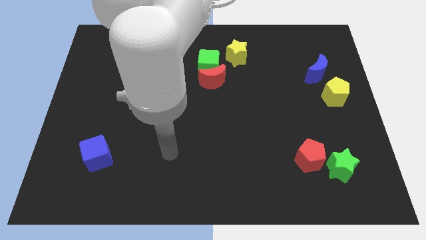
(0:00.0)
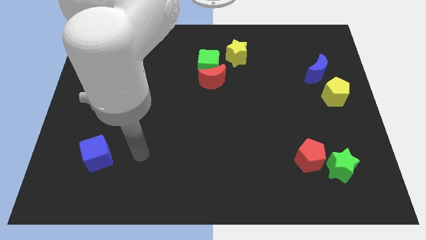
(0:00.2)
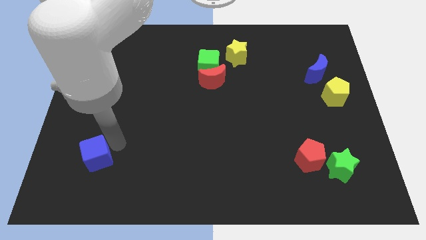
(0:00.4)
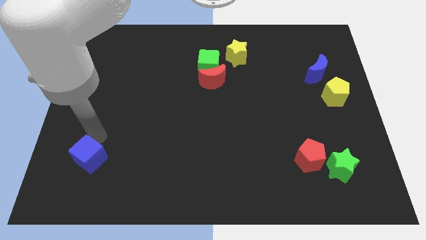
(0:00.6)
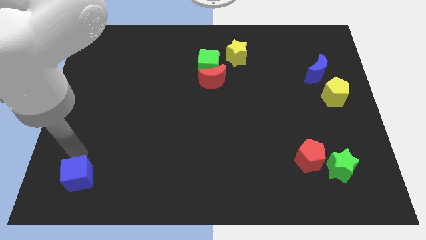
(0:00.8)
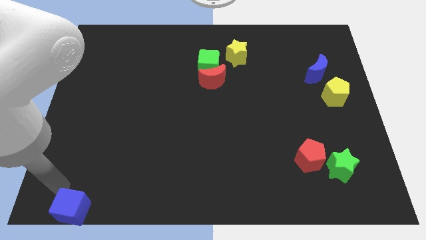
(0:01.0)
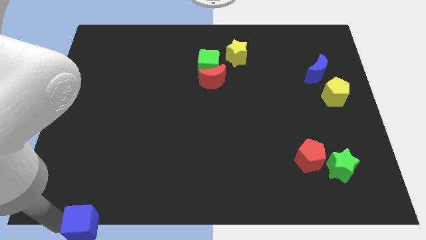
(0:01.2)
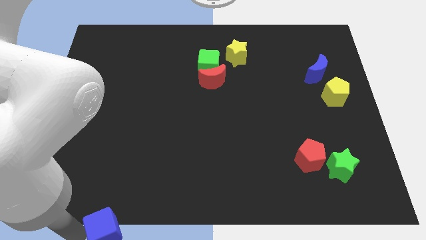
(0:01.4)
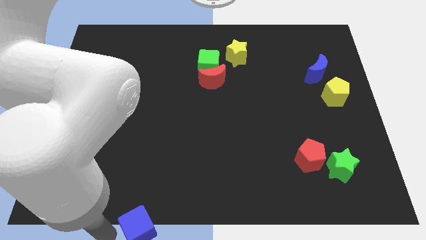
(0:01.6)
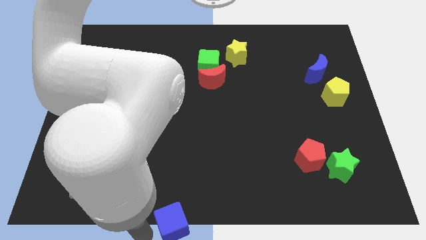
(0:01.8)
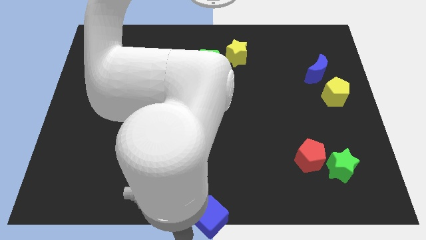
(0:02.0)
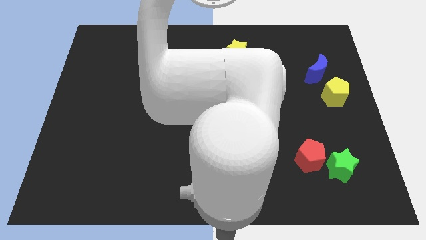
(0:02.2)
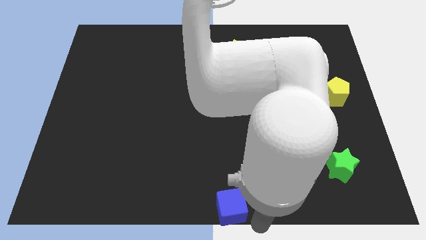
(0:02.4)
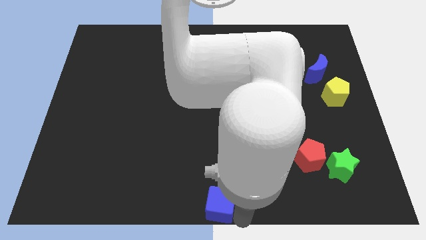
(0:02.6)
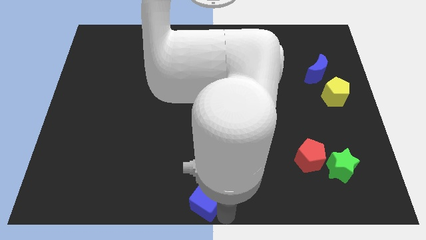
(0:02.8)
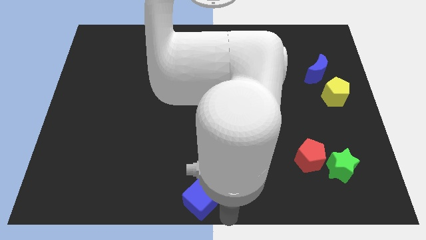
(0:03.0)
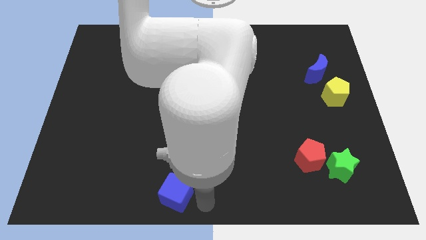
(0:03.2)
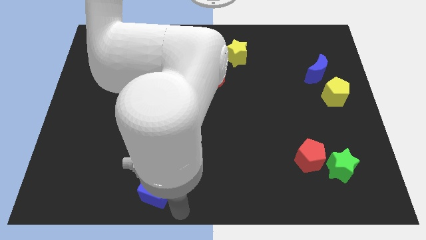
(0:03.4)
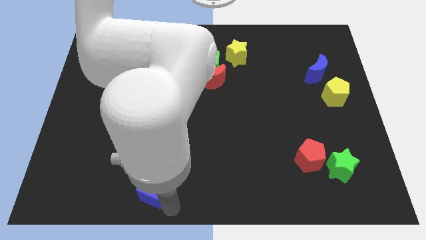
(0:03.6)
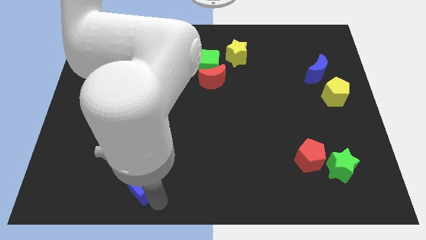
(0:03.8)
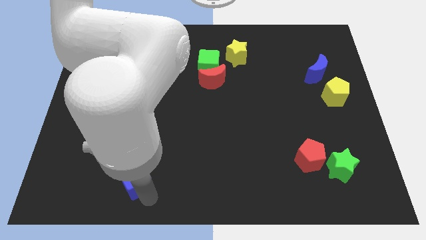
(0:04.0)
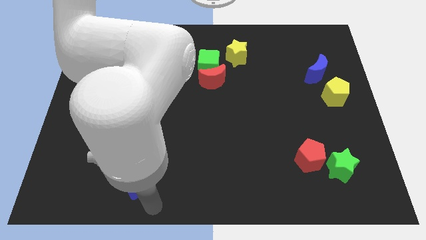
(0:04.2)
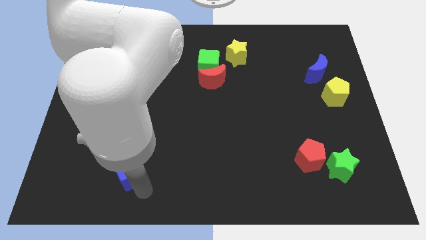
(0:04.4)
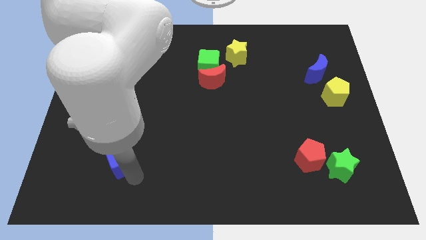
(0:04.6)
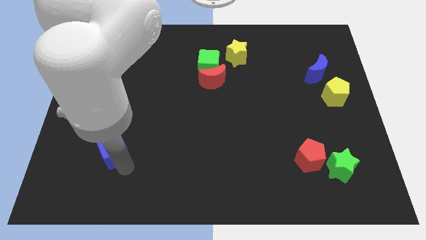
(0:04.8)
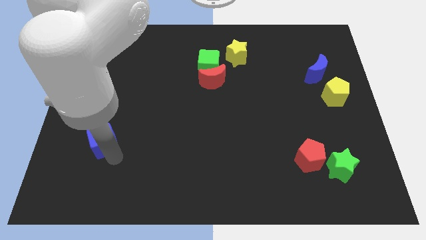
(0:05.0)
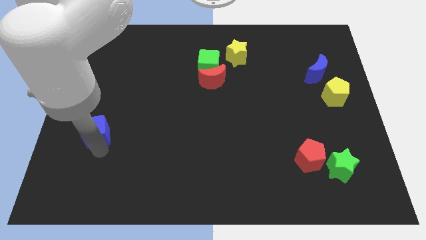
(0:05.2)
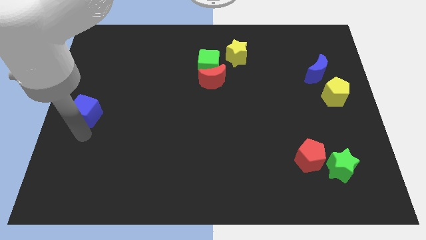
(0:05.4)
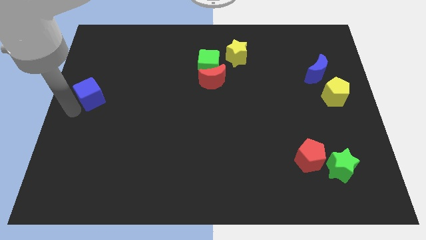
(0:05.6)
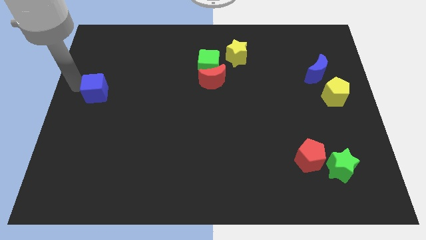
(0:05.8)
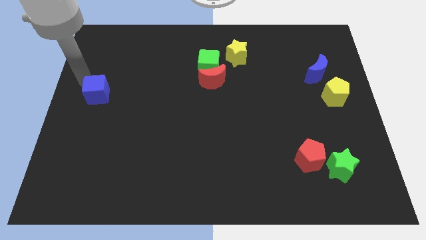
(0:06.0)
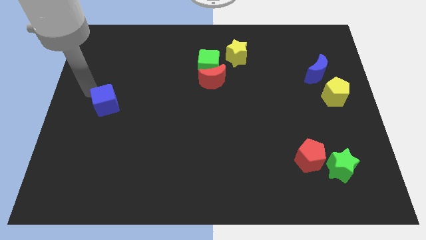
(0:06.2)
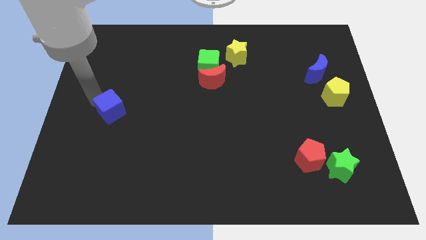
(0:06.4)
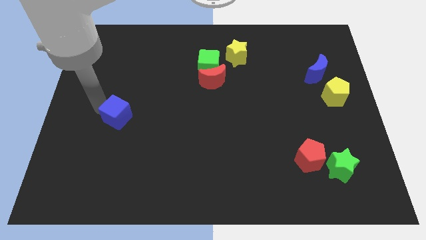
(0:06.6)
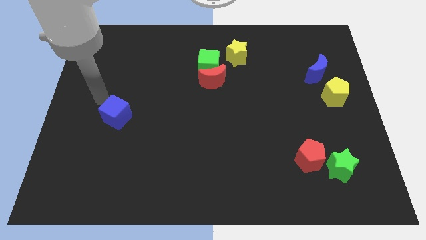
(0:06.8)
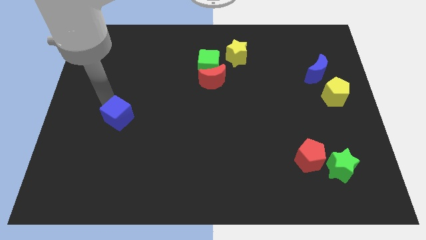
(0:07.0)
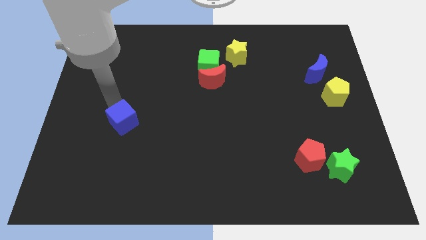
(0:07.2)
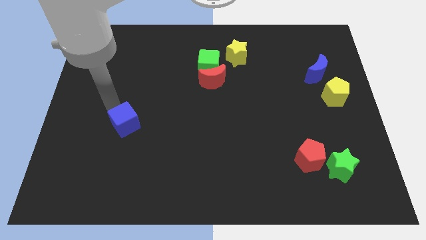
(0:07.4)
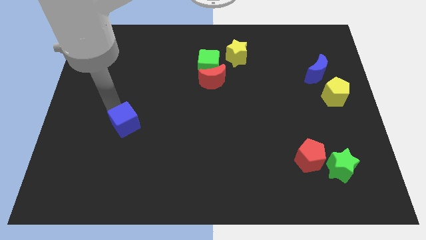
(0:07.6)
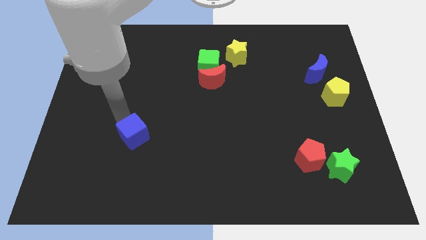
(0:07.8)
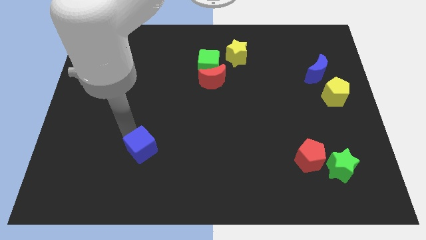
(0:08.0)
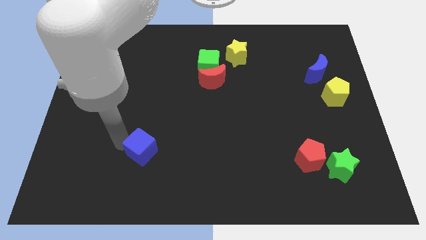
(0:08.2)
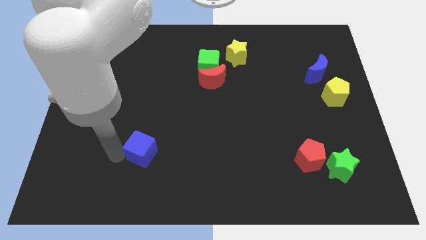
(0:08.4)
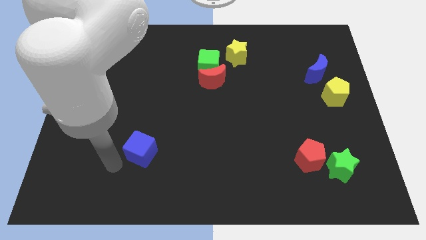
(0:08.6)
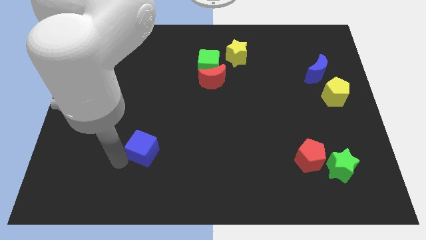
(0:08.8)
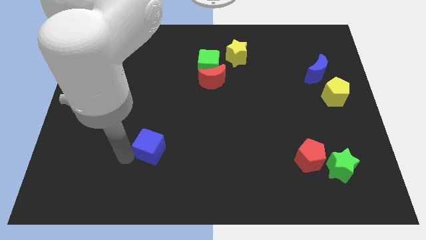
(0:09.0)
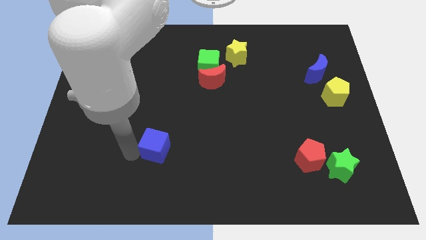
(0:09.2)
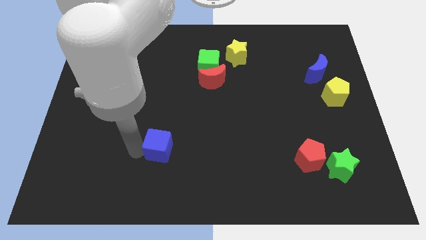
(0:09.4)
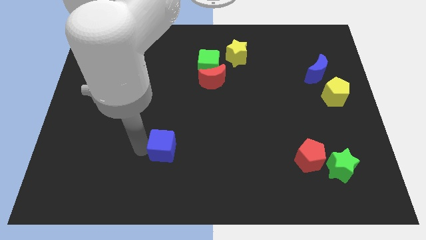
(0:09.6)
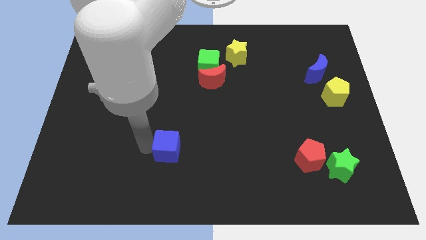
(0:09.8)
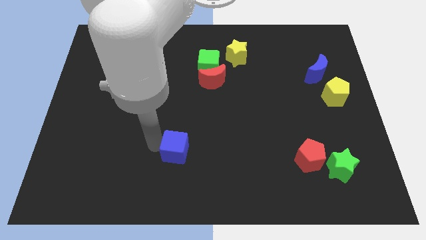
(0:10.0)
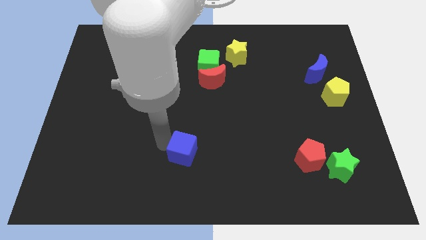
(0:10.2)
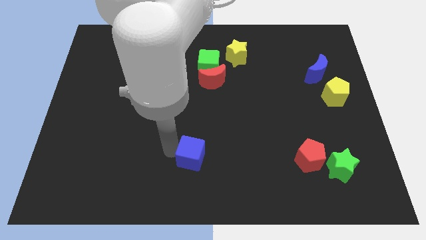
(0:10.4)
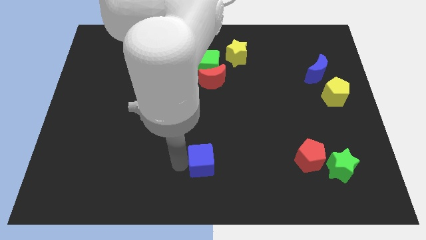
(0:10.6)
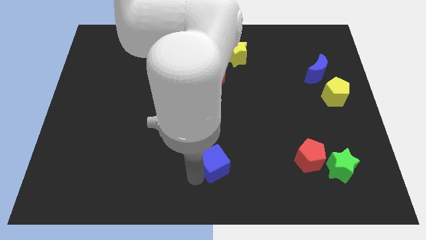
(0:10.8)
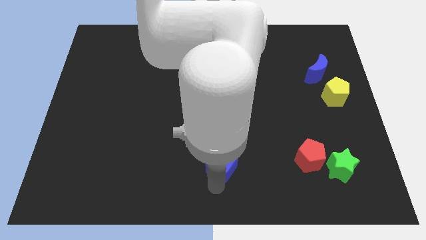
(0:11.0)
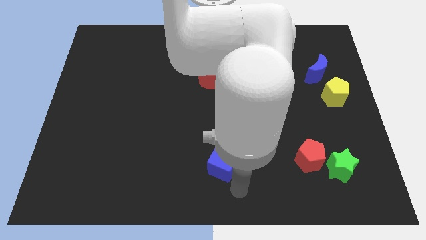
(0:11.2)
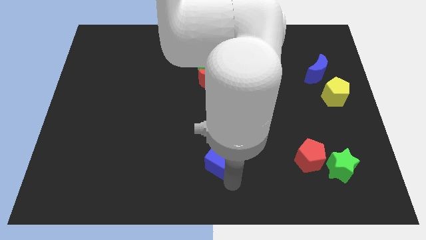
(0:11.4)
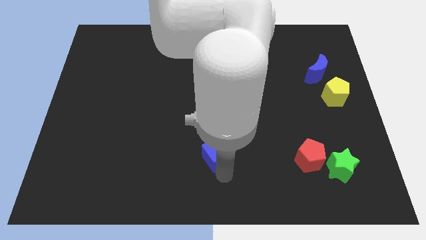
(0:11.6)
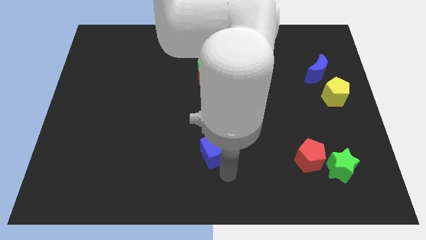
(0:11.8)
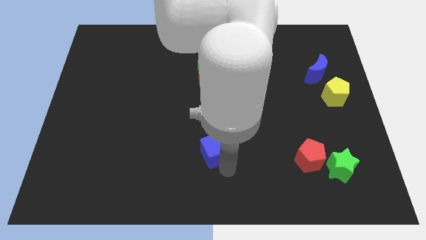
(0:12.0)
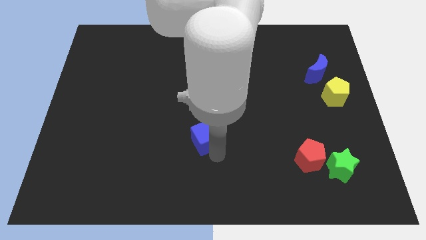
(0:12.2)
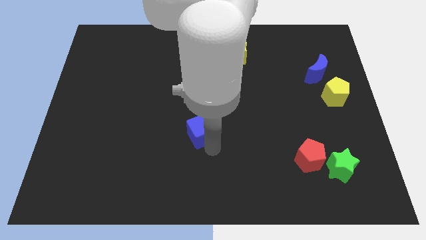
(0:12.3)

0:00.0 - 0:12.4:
slide the blue cube to the bottom side of the red moon

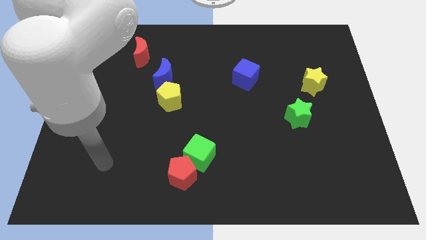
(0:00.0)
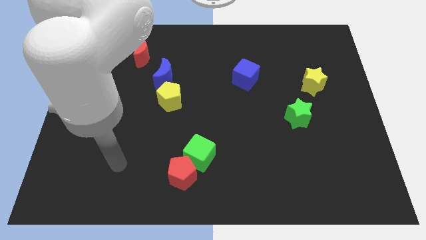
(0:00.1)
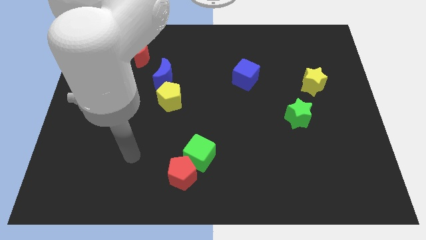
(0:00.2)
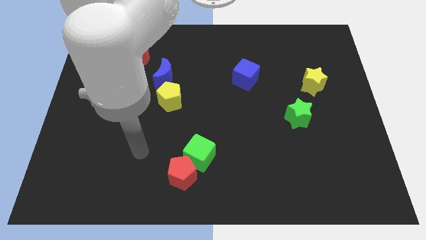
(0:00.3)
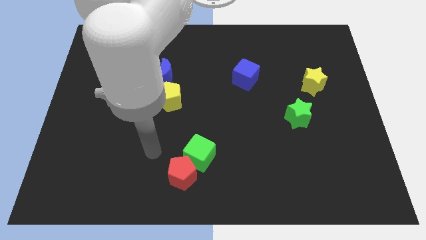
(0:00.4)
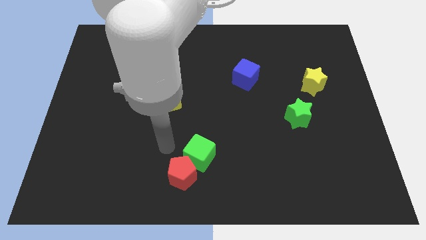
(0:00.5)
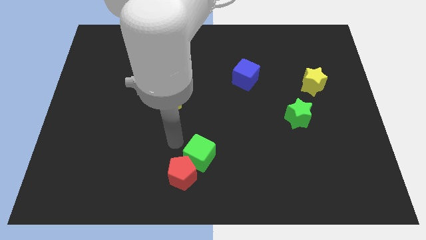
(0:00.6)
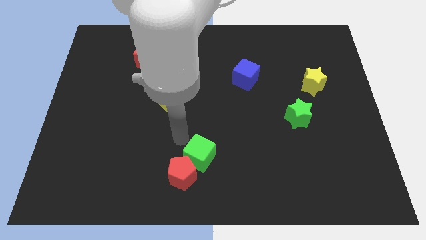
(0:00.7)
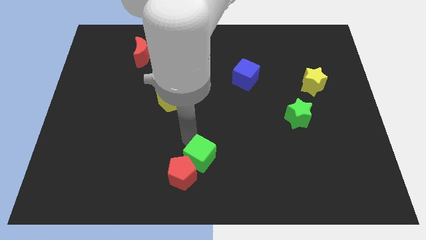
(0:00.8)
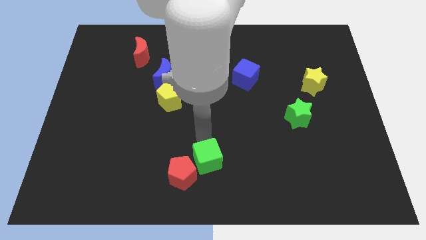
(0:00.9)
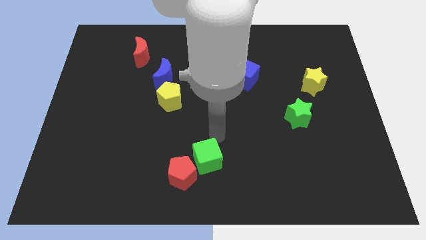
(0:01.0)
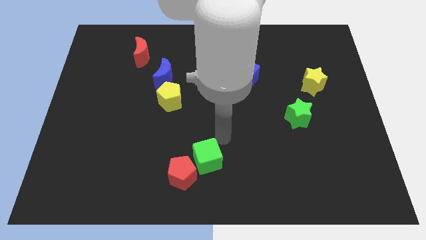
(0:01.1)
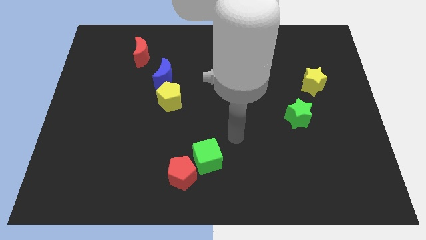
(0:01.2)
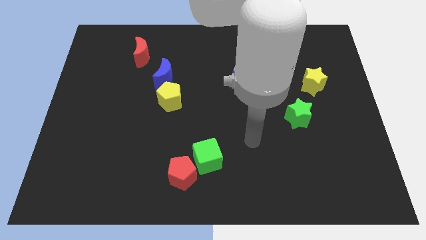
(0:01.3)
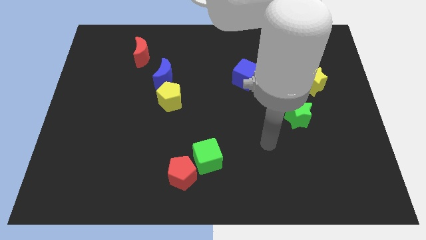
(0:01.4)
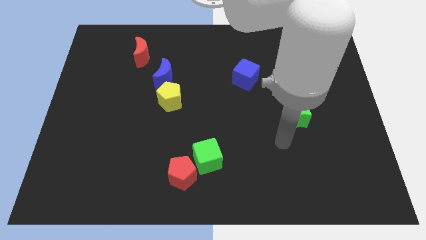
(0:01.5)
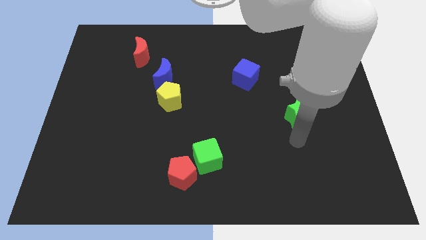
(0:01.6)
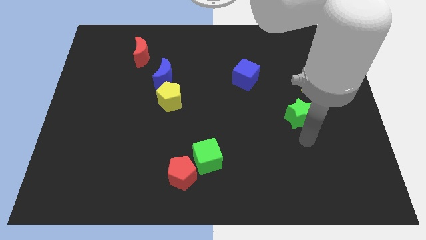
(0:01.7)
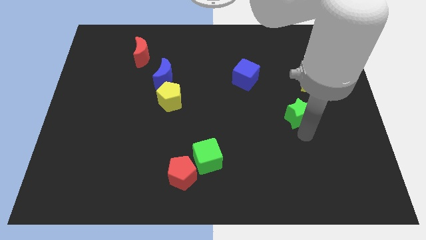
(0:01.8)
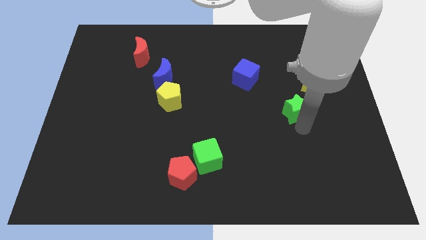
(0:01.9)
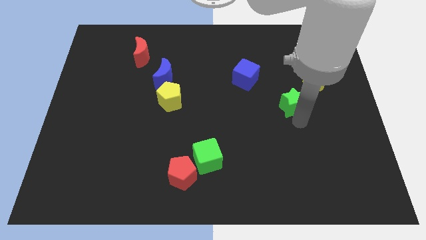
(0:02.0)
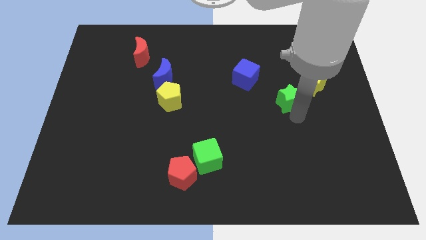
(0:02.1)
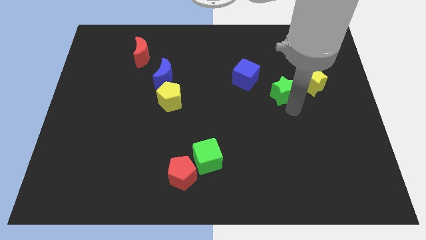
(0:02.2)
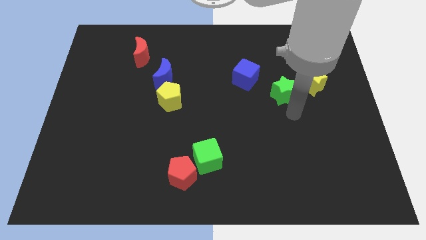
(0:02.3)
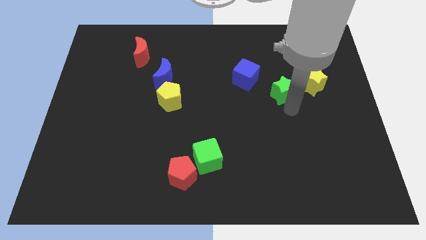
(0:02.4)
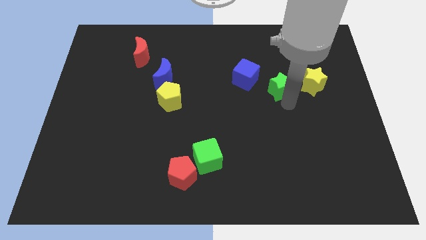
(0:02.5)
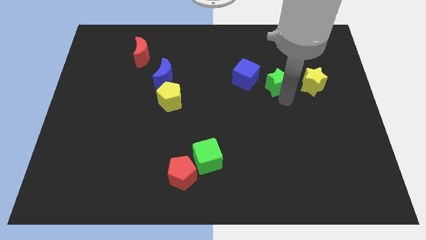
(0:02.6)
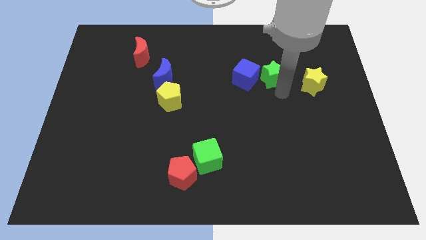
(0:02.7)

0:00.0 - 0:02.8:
put the green star to the top right side of the blue cube
